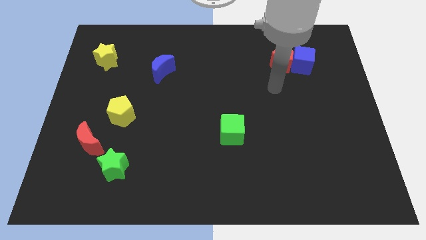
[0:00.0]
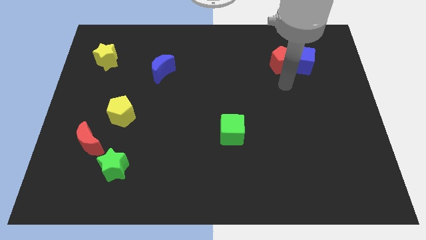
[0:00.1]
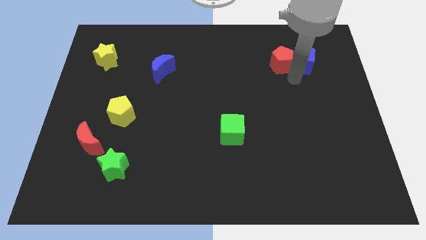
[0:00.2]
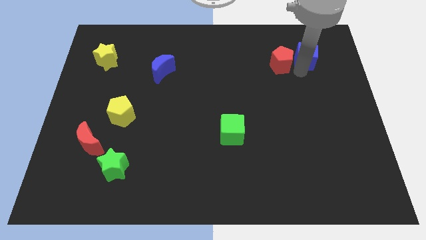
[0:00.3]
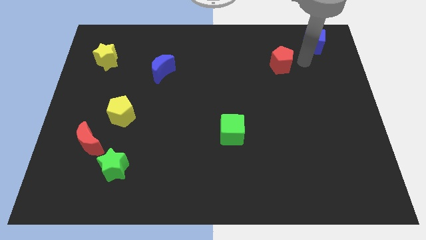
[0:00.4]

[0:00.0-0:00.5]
separate the red pentagon from the blue cube

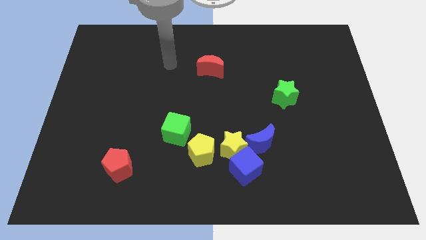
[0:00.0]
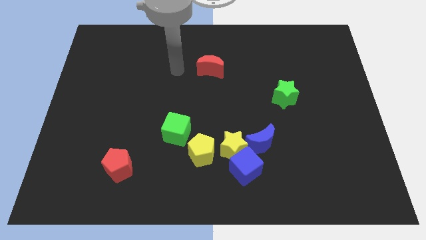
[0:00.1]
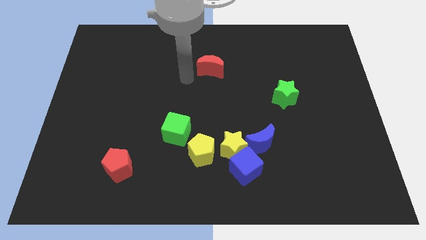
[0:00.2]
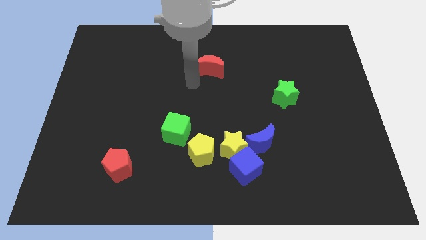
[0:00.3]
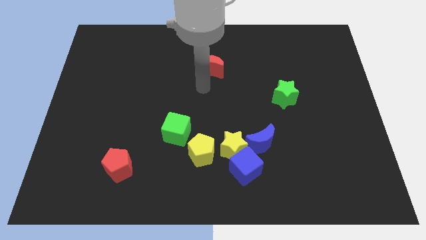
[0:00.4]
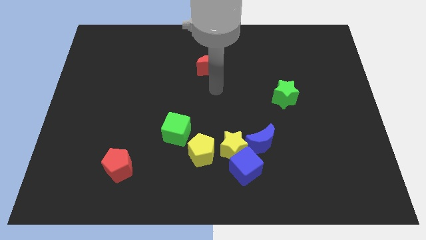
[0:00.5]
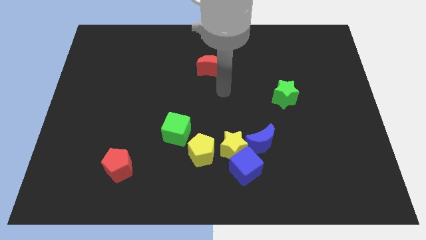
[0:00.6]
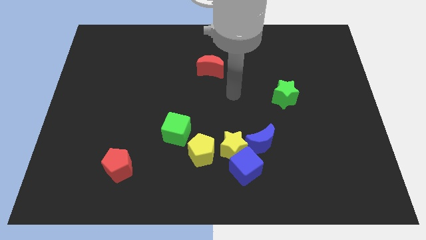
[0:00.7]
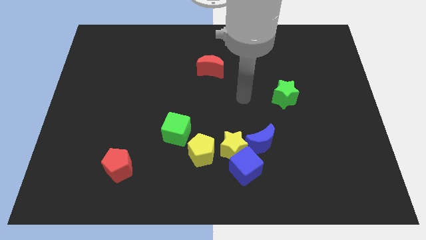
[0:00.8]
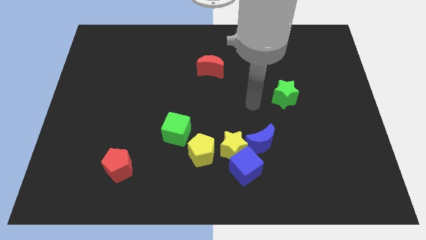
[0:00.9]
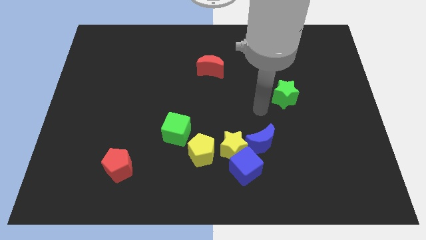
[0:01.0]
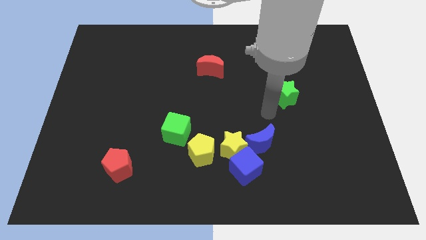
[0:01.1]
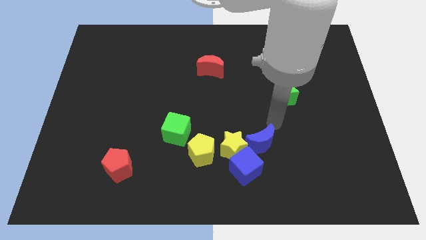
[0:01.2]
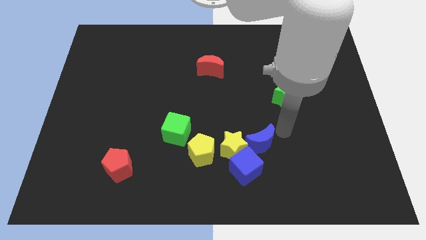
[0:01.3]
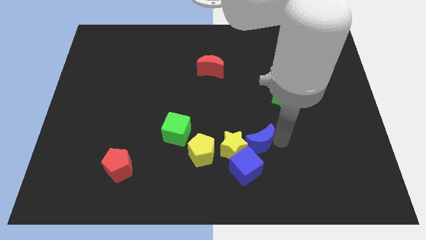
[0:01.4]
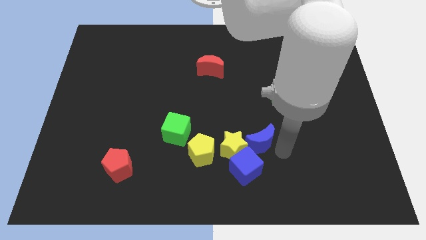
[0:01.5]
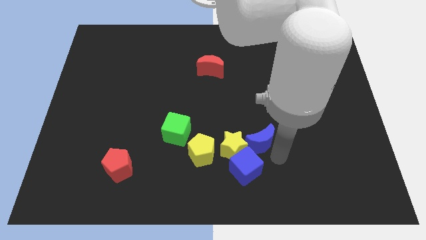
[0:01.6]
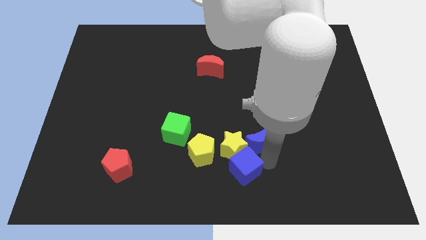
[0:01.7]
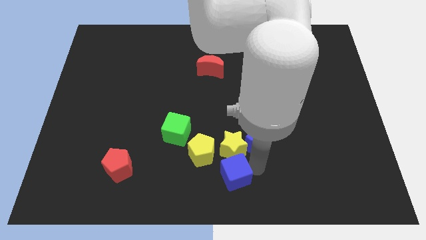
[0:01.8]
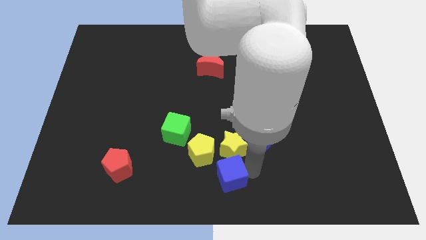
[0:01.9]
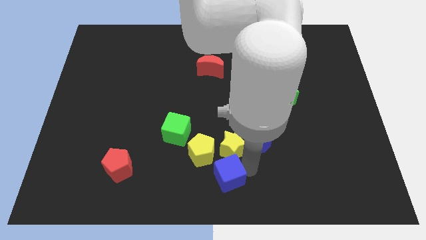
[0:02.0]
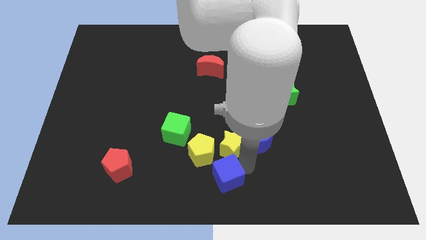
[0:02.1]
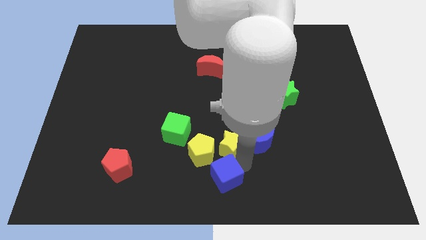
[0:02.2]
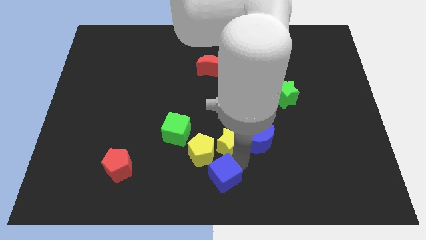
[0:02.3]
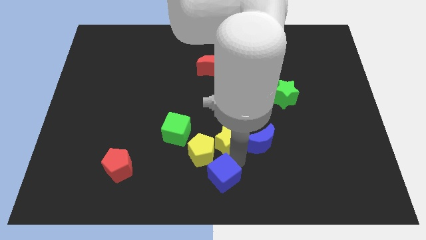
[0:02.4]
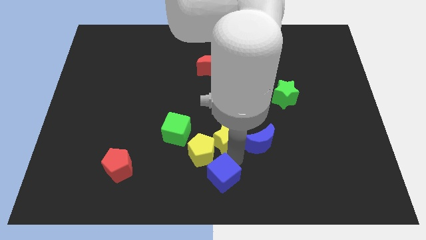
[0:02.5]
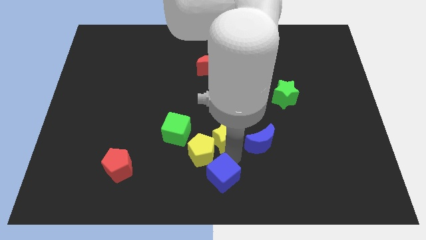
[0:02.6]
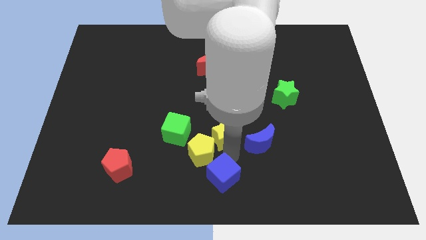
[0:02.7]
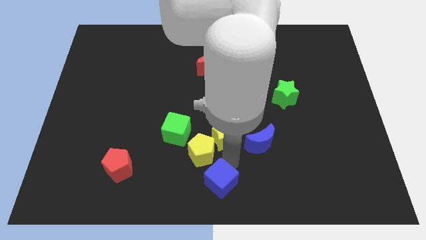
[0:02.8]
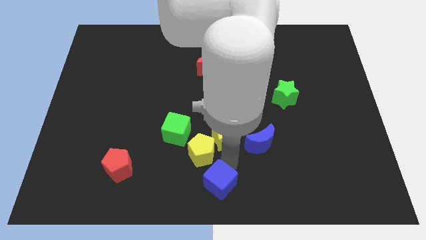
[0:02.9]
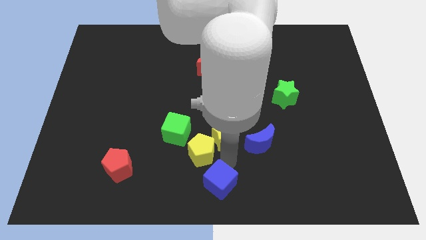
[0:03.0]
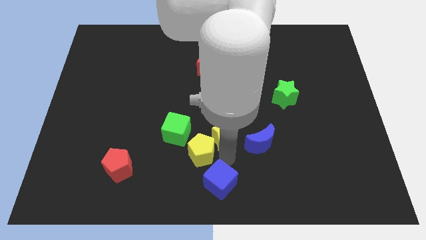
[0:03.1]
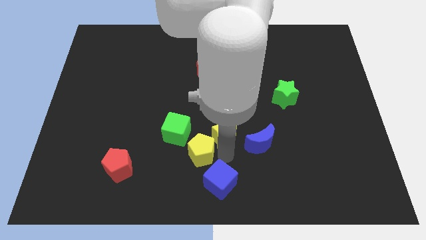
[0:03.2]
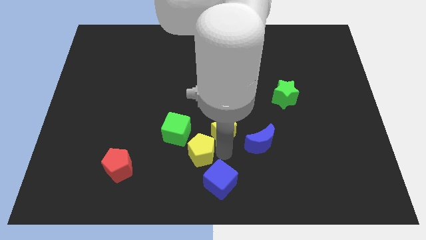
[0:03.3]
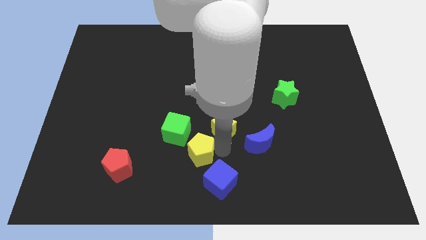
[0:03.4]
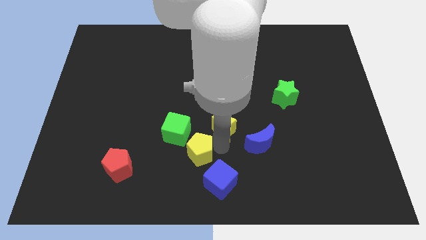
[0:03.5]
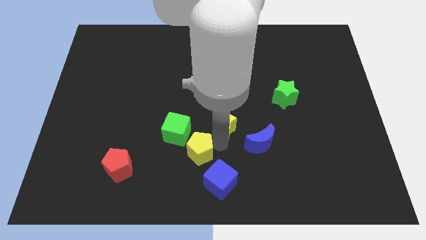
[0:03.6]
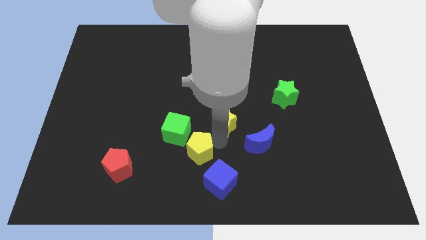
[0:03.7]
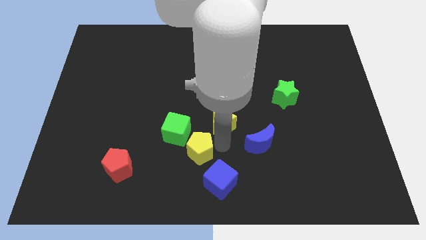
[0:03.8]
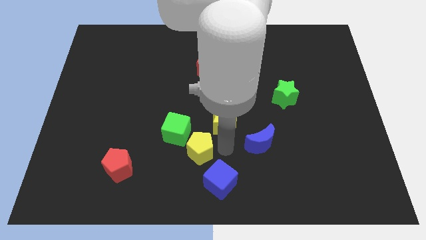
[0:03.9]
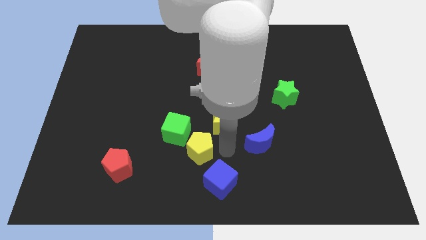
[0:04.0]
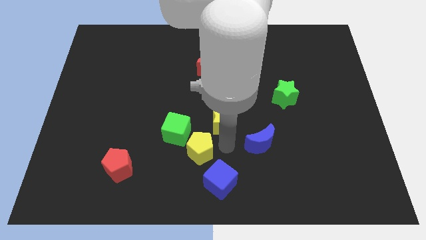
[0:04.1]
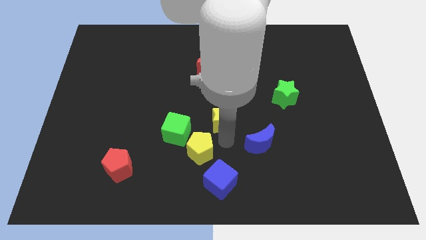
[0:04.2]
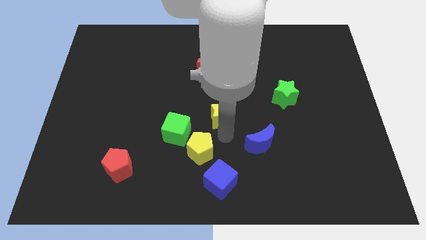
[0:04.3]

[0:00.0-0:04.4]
separate the yellow star from the blue cube, blue moon, and yellow pentagon

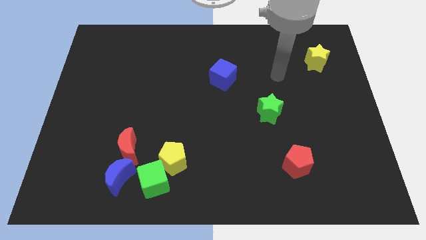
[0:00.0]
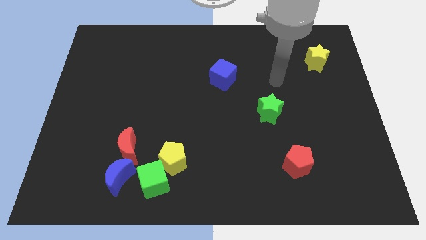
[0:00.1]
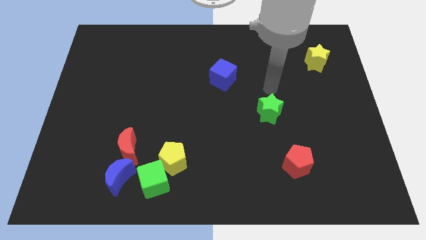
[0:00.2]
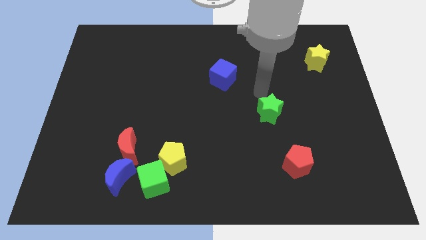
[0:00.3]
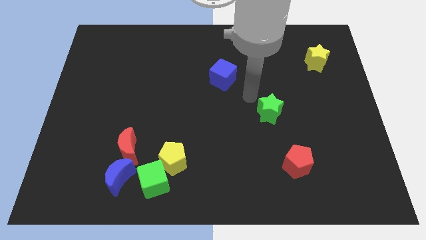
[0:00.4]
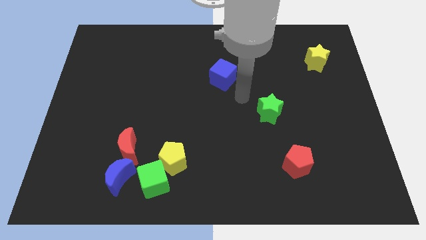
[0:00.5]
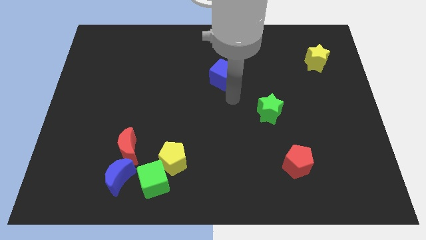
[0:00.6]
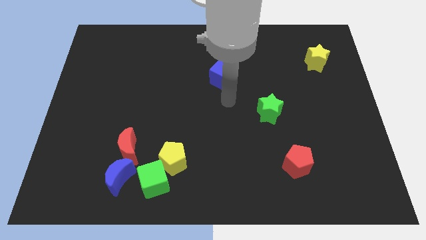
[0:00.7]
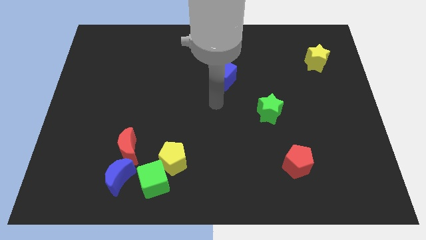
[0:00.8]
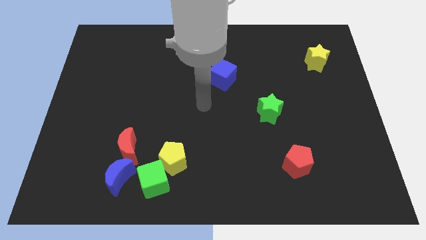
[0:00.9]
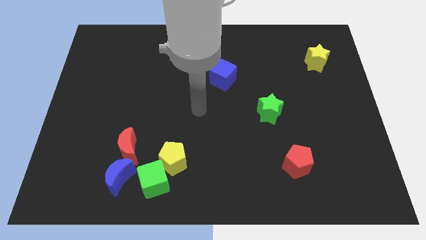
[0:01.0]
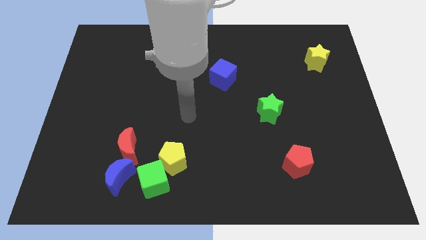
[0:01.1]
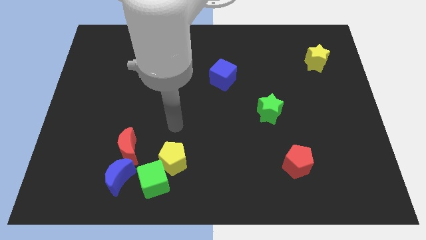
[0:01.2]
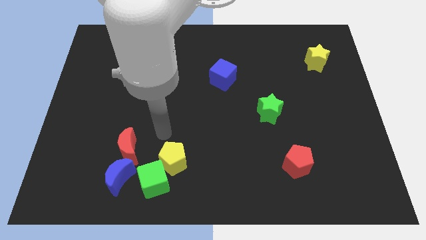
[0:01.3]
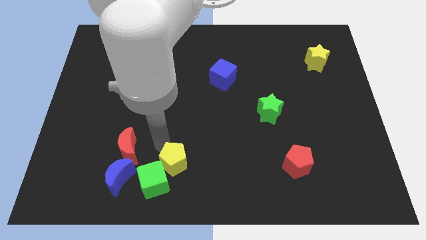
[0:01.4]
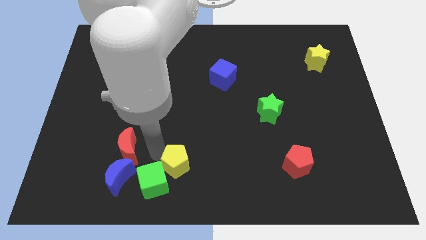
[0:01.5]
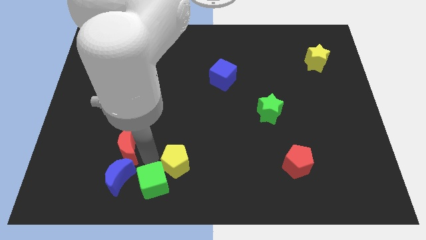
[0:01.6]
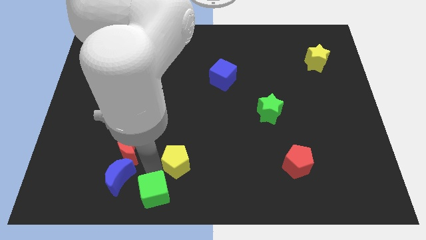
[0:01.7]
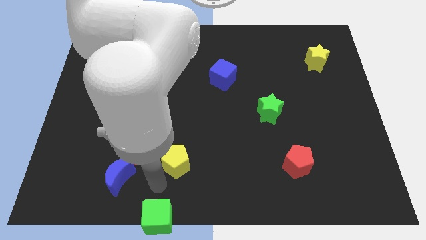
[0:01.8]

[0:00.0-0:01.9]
move the yellow pentagon away from the green cube

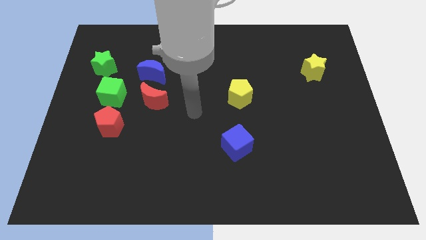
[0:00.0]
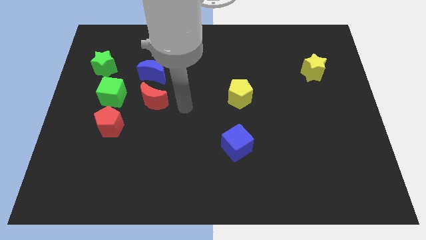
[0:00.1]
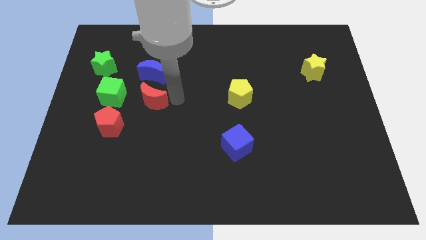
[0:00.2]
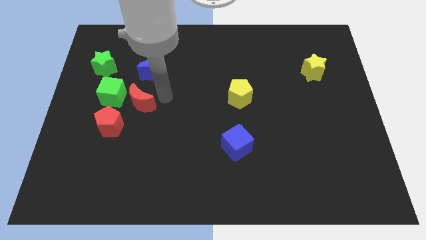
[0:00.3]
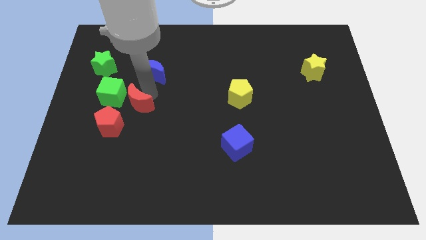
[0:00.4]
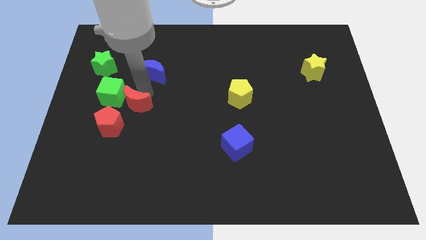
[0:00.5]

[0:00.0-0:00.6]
move the blue moon away from the red moon

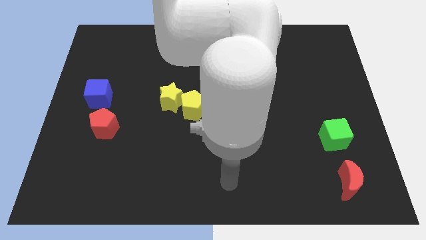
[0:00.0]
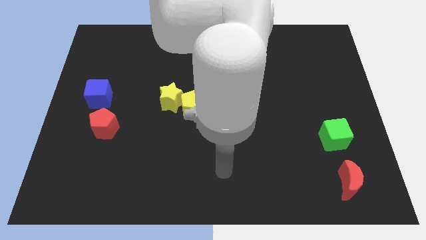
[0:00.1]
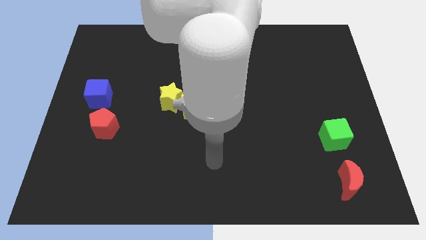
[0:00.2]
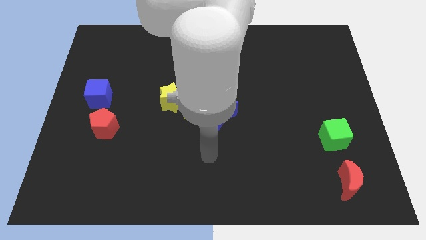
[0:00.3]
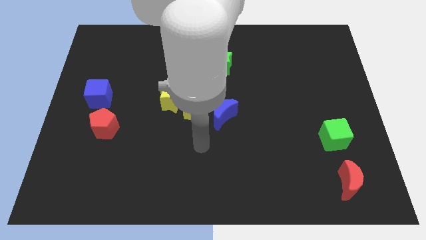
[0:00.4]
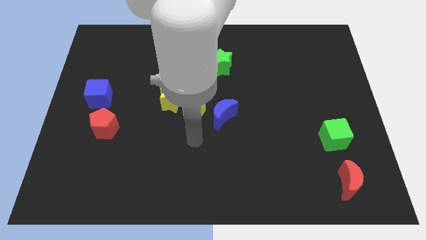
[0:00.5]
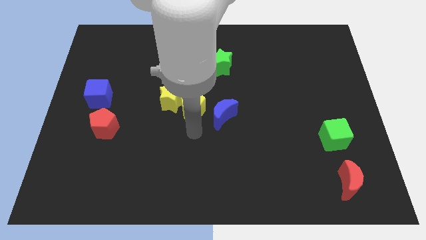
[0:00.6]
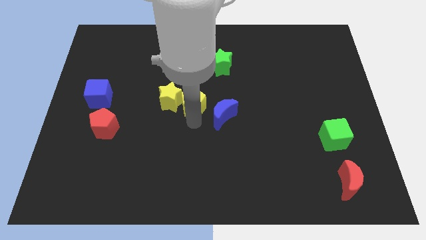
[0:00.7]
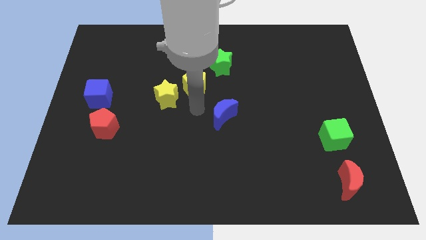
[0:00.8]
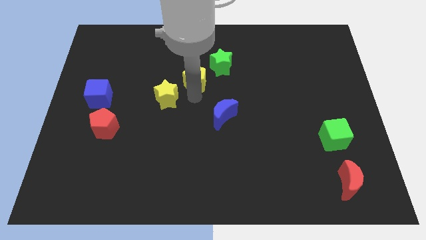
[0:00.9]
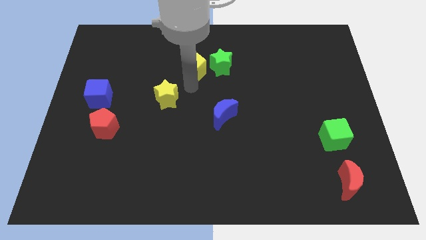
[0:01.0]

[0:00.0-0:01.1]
move the yellow star away from the yellow pentagon

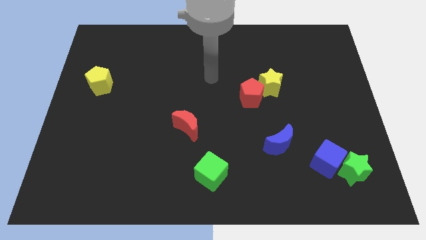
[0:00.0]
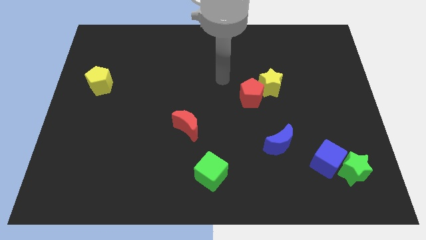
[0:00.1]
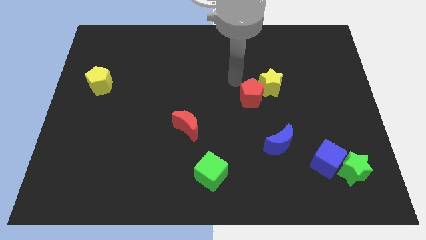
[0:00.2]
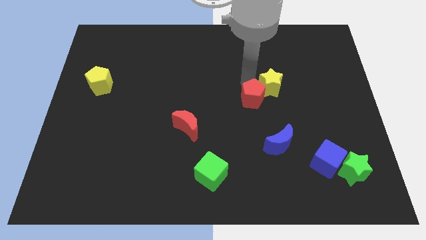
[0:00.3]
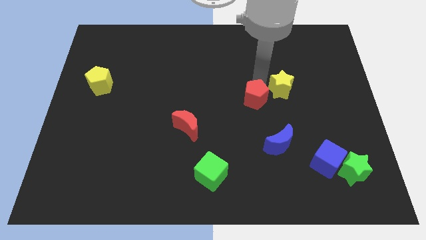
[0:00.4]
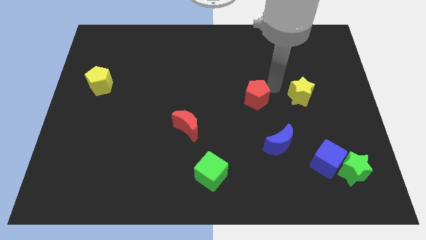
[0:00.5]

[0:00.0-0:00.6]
separate the red pentagon from the yellow star

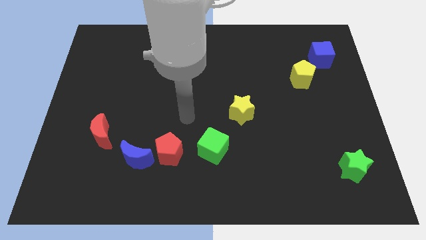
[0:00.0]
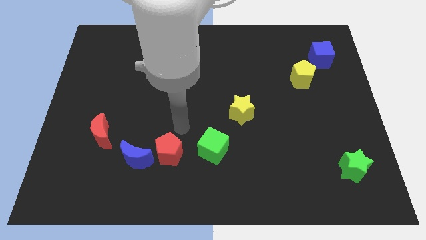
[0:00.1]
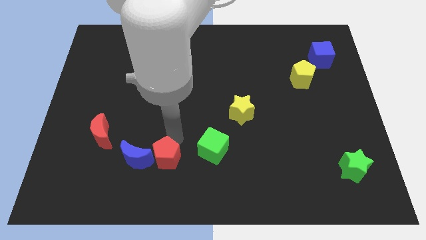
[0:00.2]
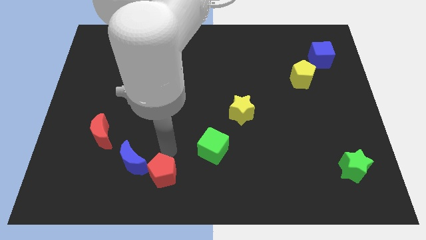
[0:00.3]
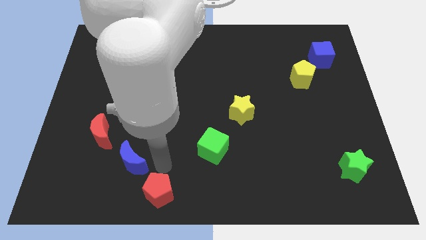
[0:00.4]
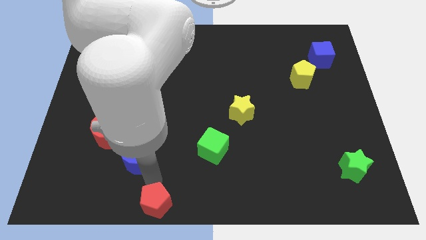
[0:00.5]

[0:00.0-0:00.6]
pull the blue moon apart from the red pentagon
